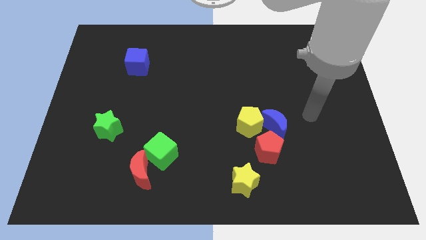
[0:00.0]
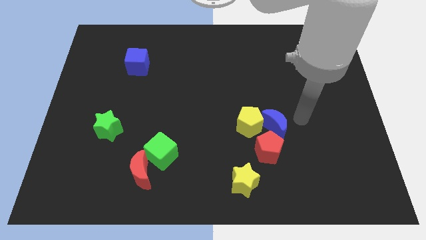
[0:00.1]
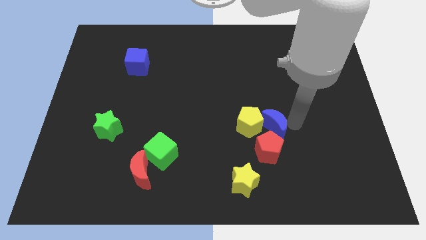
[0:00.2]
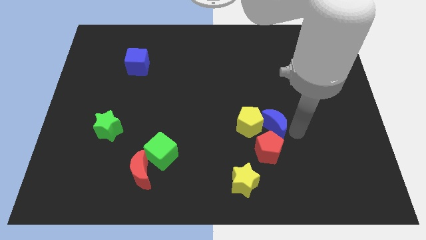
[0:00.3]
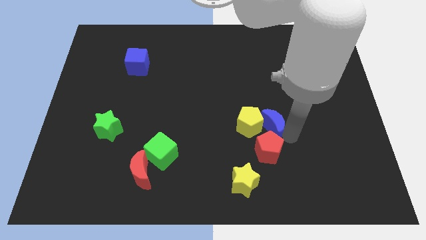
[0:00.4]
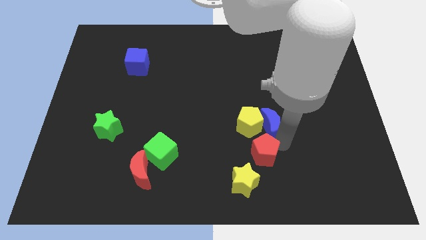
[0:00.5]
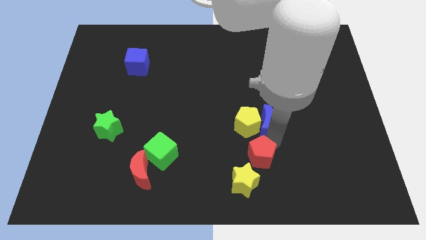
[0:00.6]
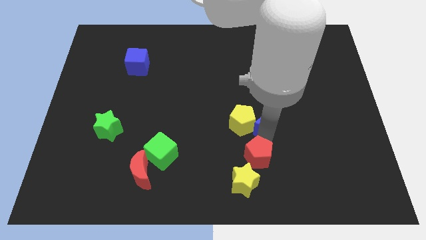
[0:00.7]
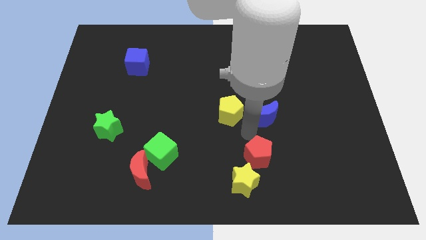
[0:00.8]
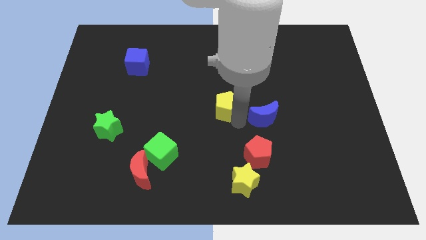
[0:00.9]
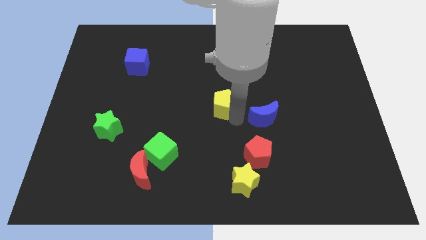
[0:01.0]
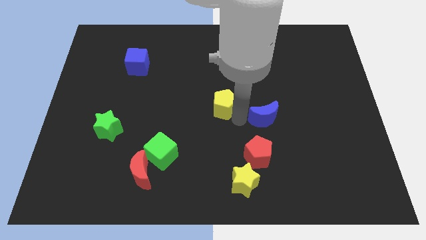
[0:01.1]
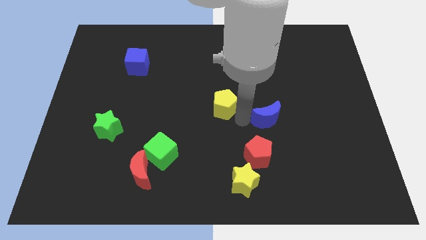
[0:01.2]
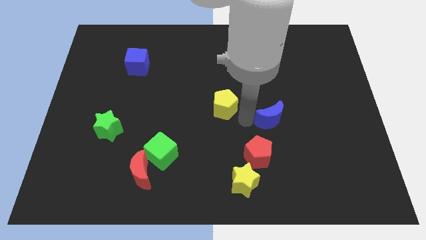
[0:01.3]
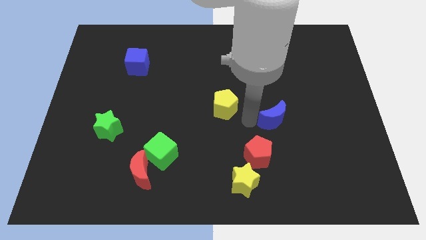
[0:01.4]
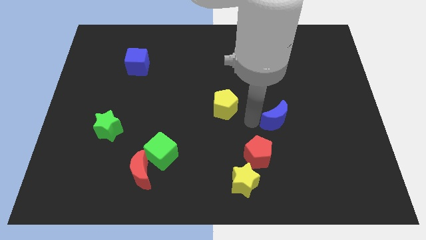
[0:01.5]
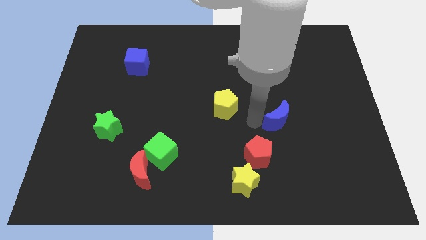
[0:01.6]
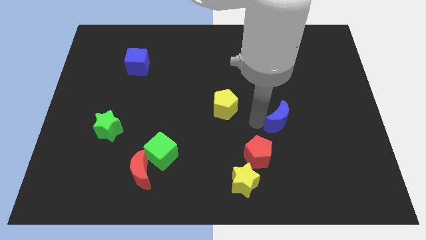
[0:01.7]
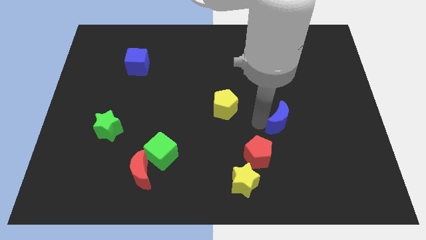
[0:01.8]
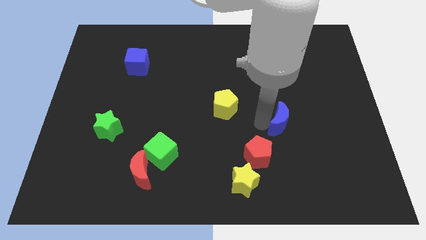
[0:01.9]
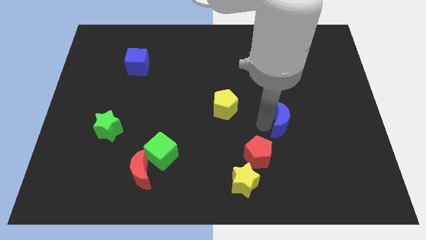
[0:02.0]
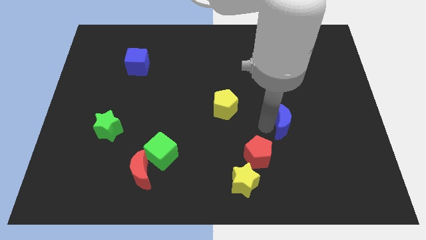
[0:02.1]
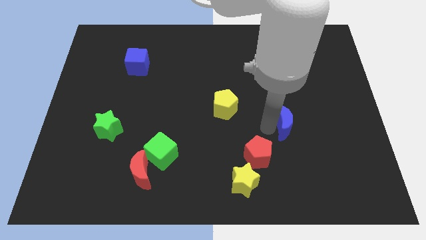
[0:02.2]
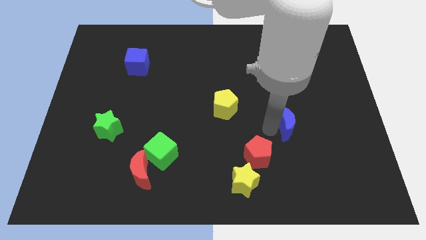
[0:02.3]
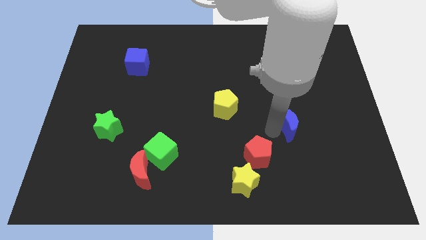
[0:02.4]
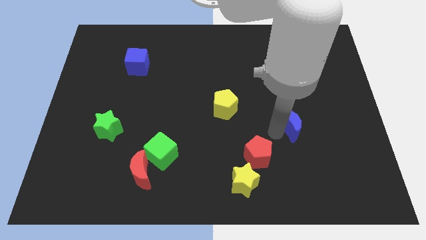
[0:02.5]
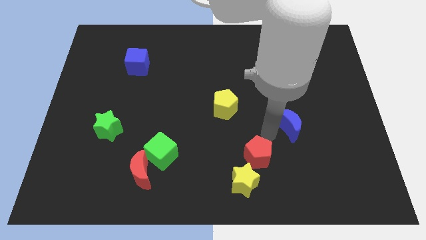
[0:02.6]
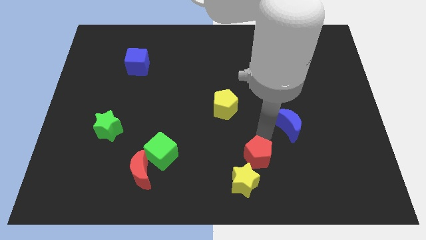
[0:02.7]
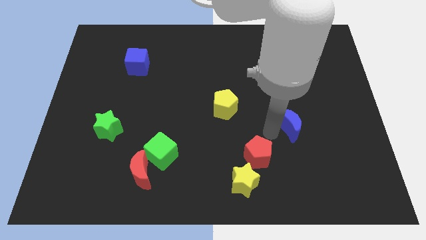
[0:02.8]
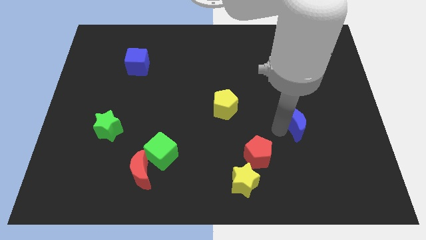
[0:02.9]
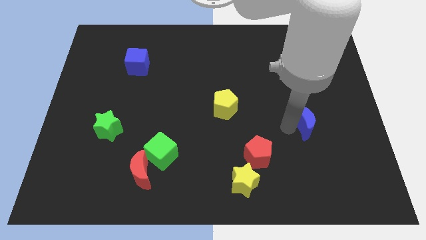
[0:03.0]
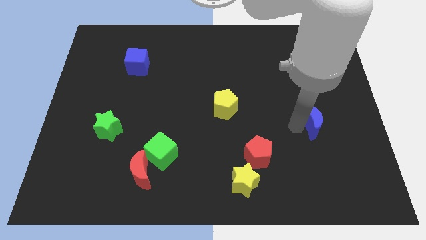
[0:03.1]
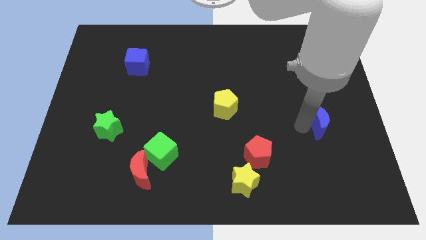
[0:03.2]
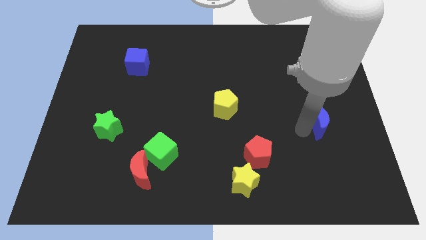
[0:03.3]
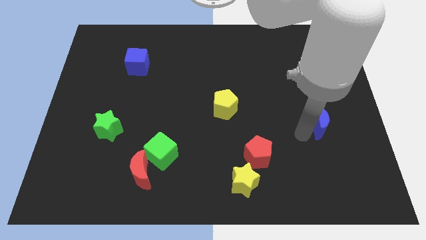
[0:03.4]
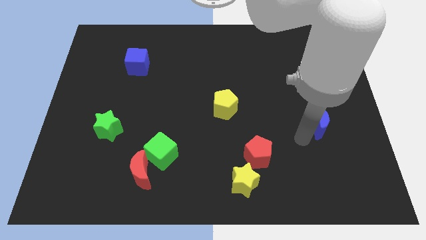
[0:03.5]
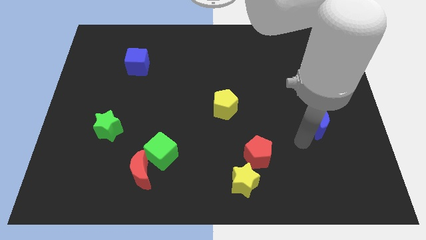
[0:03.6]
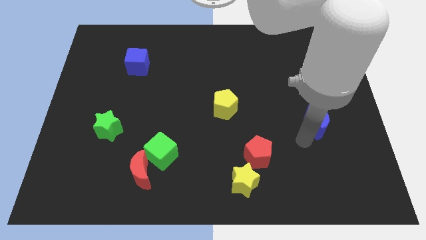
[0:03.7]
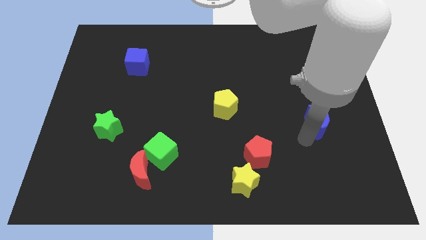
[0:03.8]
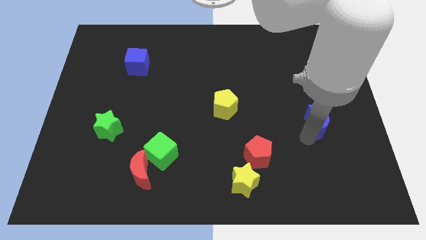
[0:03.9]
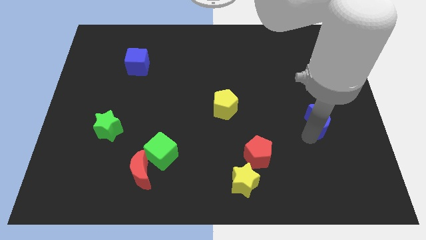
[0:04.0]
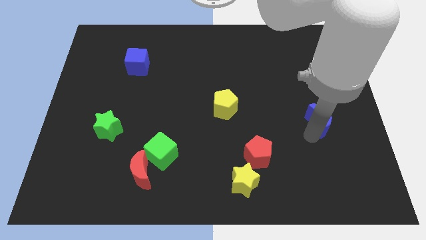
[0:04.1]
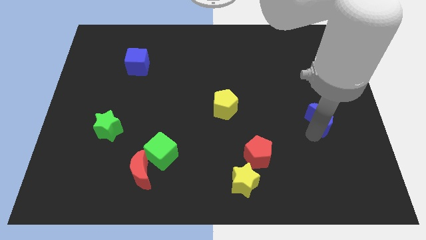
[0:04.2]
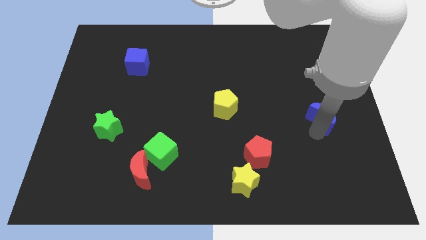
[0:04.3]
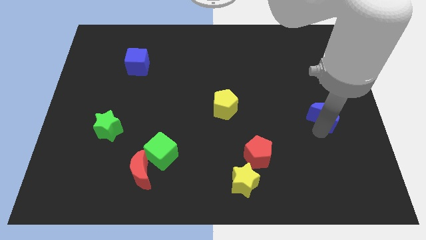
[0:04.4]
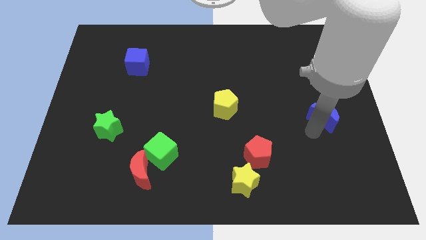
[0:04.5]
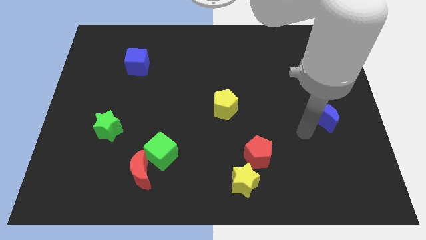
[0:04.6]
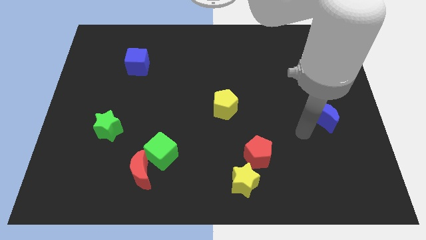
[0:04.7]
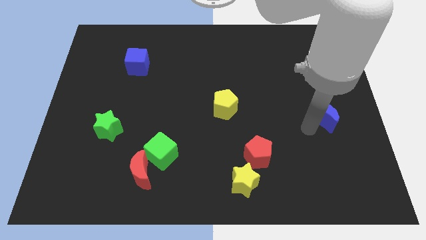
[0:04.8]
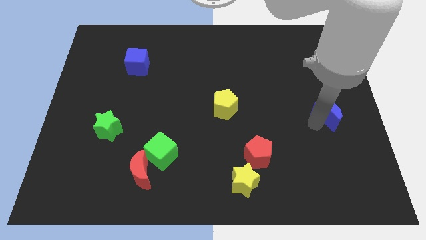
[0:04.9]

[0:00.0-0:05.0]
slide the blue moon to the right side of the board

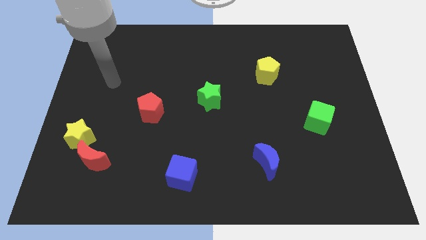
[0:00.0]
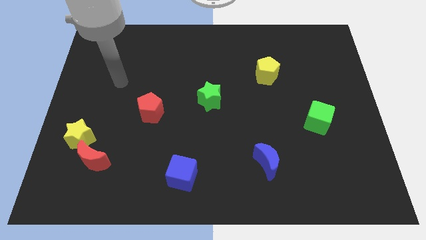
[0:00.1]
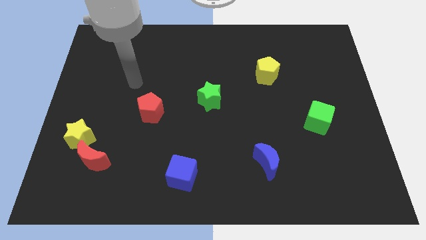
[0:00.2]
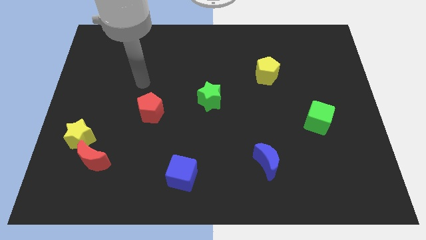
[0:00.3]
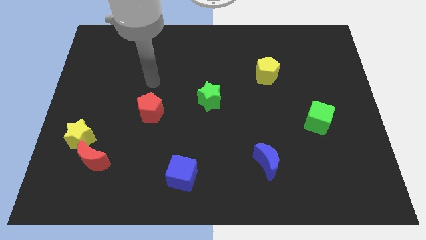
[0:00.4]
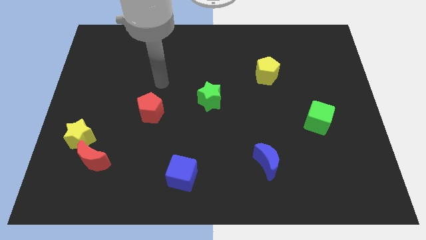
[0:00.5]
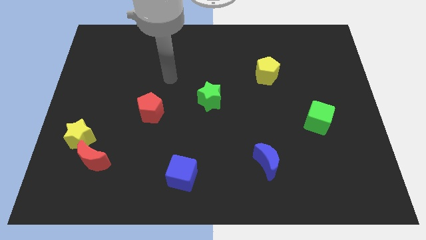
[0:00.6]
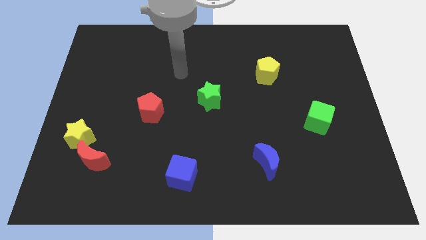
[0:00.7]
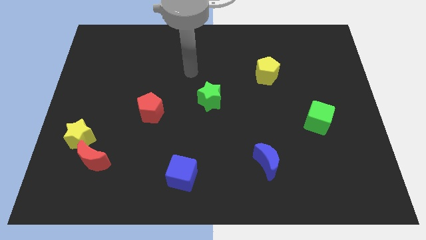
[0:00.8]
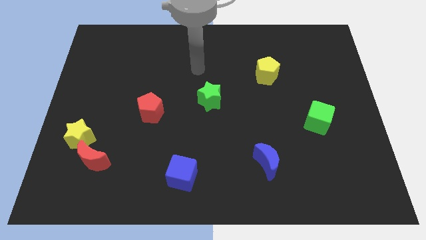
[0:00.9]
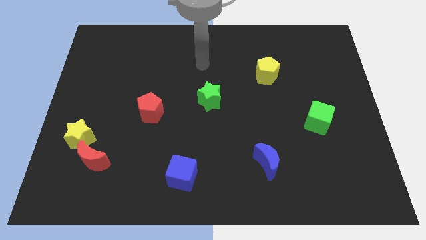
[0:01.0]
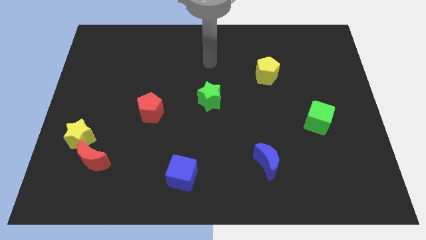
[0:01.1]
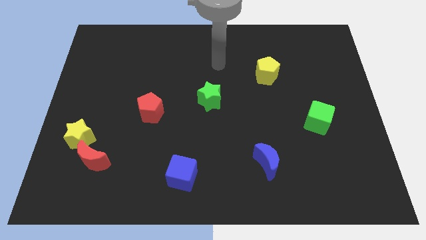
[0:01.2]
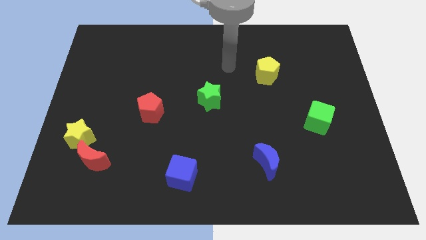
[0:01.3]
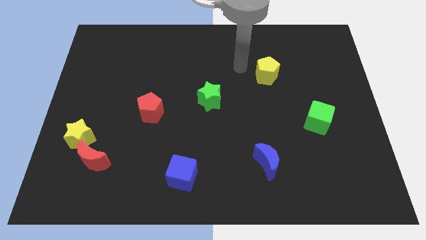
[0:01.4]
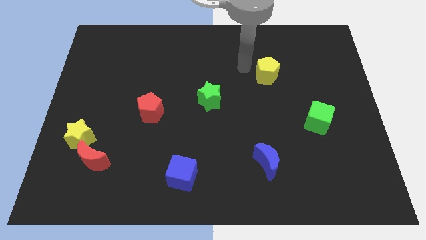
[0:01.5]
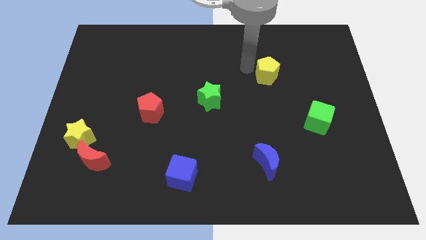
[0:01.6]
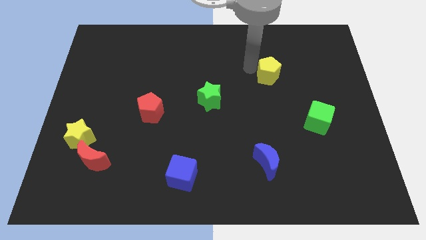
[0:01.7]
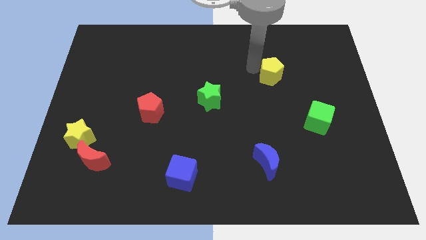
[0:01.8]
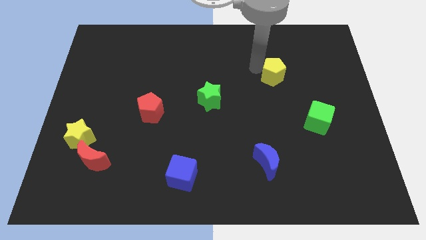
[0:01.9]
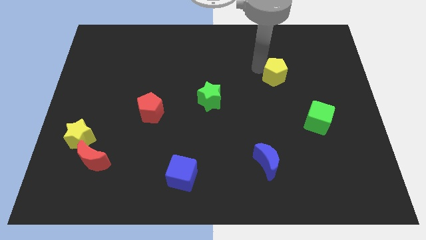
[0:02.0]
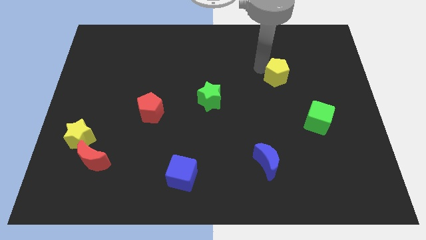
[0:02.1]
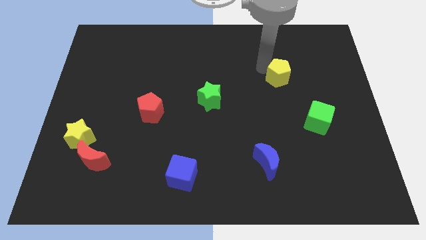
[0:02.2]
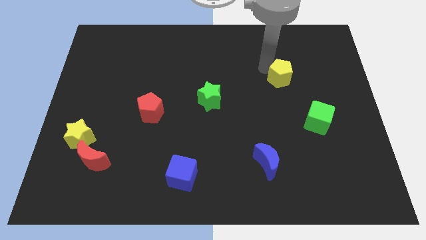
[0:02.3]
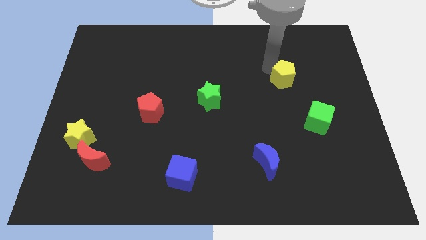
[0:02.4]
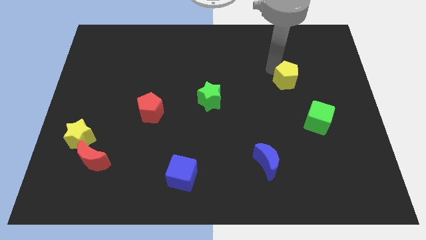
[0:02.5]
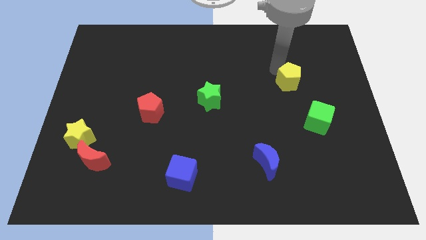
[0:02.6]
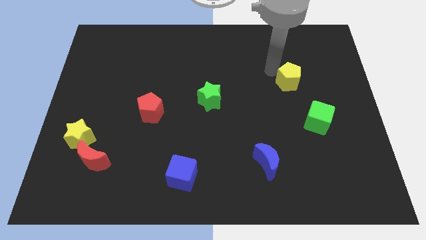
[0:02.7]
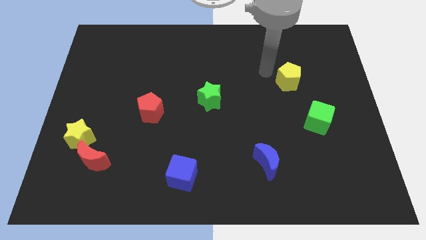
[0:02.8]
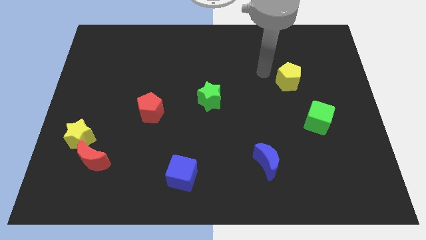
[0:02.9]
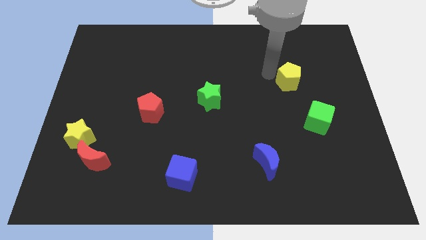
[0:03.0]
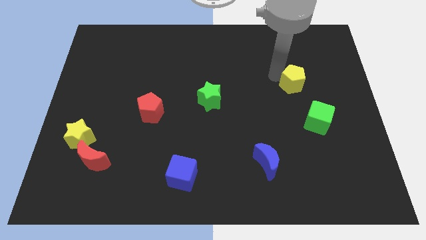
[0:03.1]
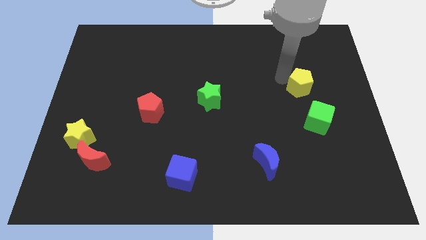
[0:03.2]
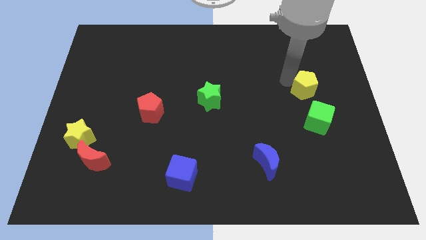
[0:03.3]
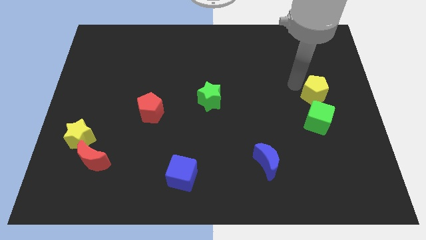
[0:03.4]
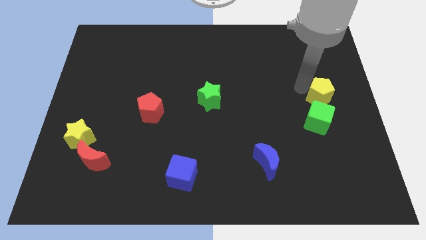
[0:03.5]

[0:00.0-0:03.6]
move the yellow pentagon to the right side of the board
